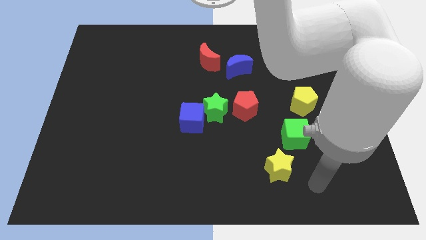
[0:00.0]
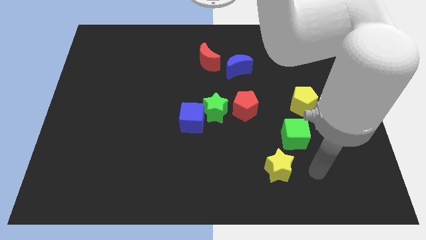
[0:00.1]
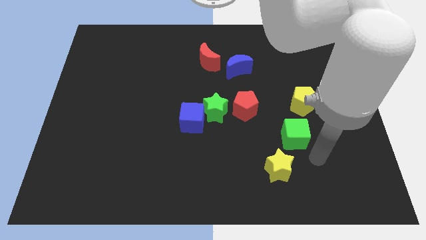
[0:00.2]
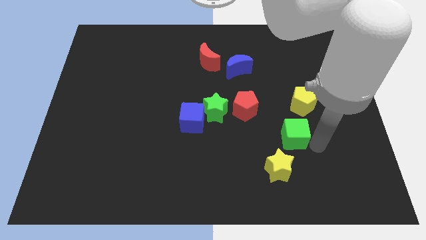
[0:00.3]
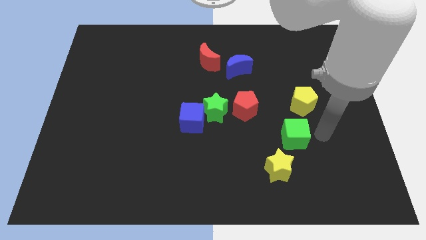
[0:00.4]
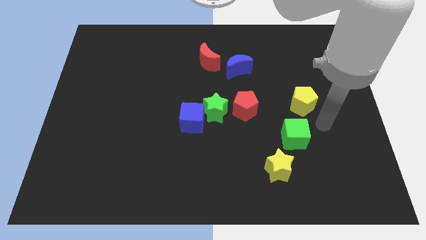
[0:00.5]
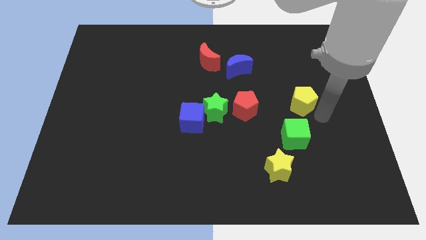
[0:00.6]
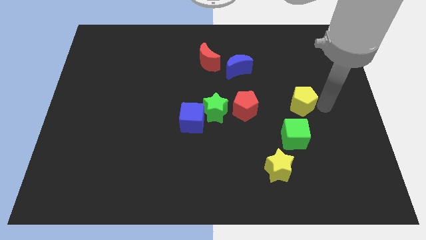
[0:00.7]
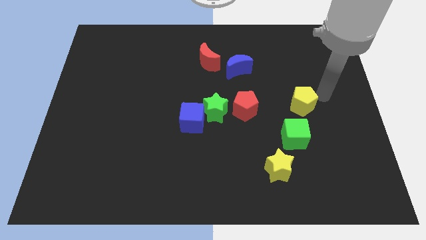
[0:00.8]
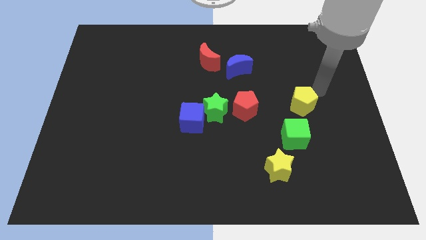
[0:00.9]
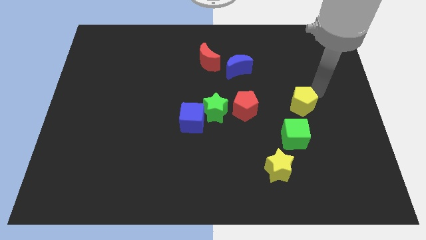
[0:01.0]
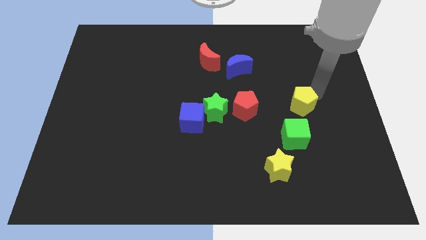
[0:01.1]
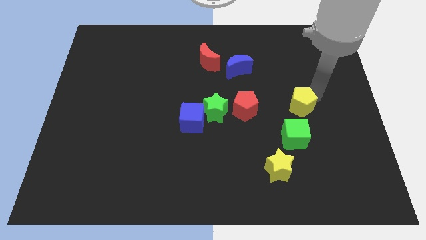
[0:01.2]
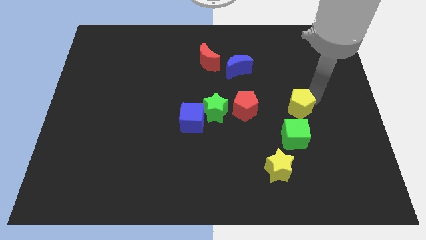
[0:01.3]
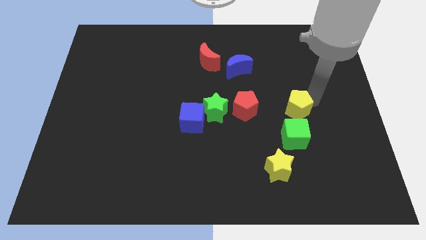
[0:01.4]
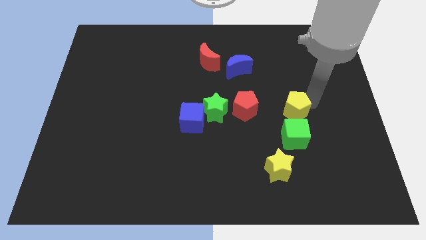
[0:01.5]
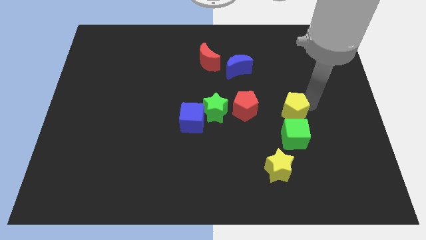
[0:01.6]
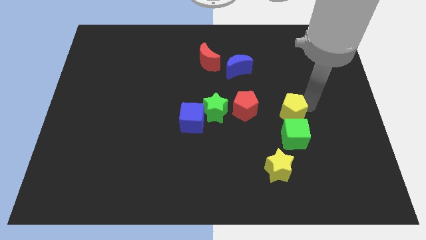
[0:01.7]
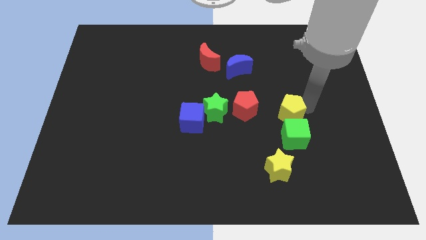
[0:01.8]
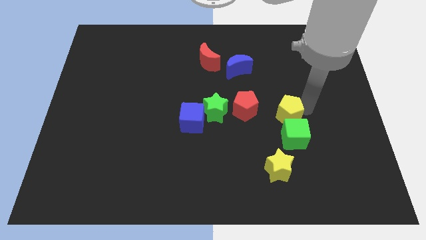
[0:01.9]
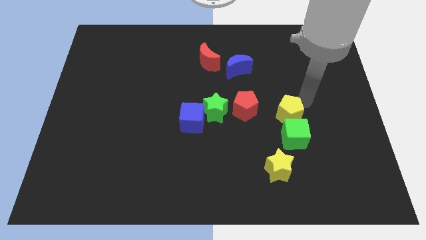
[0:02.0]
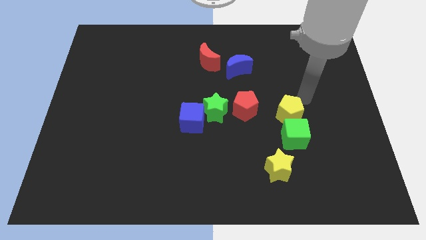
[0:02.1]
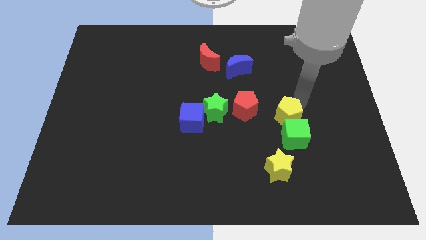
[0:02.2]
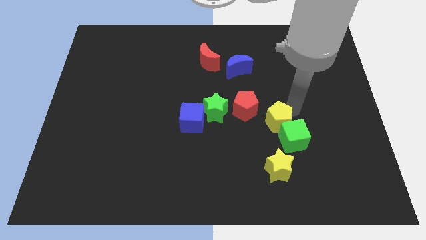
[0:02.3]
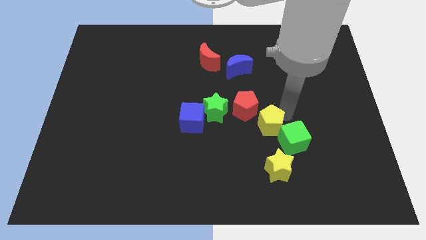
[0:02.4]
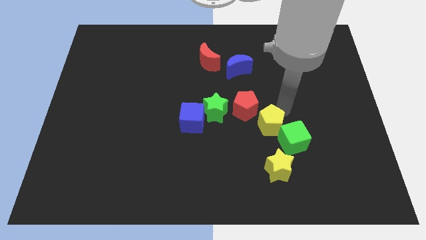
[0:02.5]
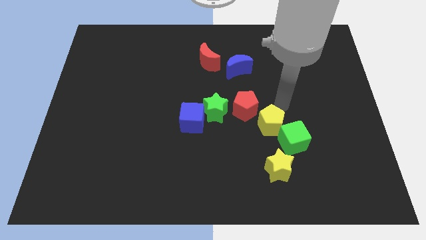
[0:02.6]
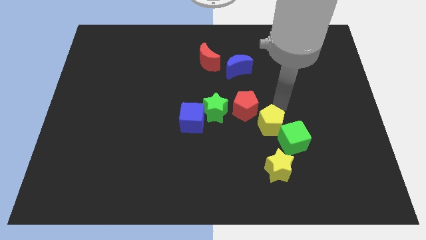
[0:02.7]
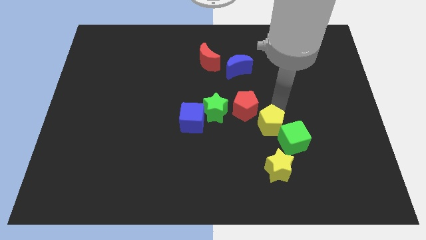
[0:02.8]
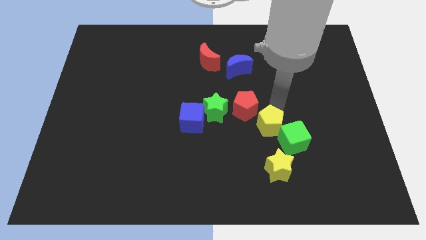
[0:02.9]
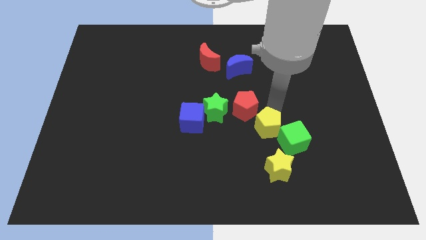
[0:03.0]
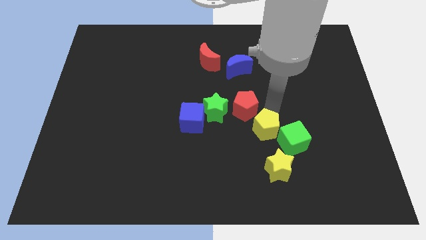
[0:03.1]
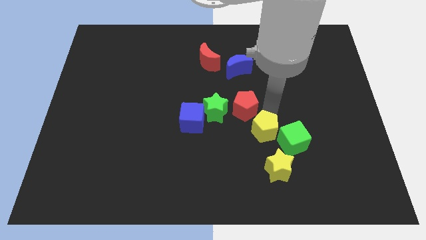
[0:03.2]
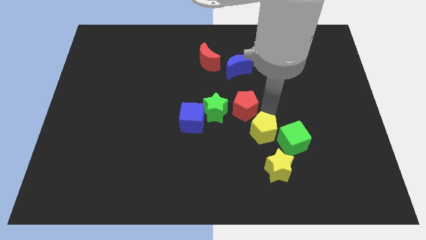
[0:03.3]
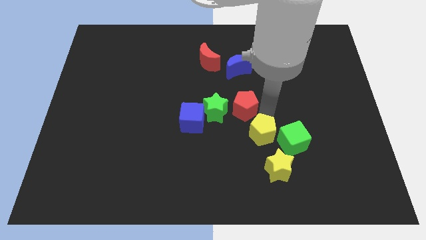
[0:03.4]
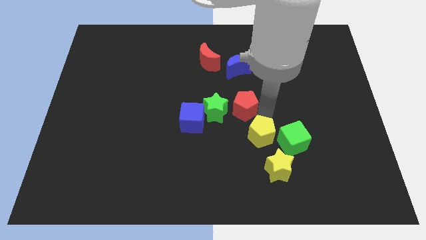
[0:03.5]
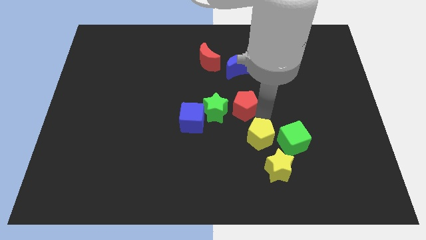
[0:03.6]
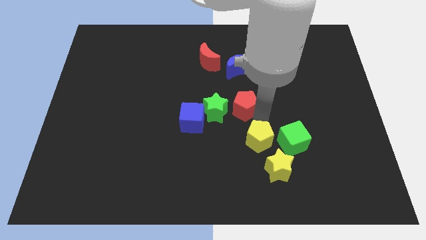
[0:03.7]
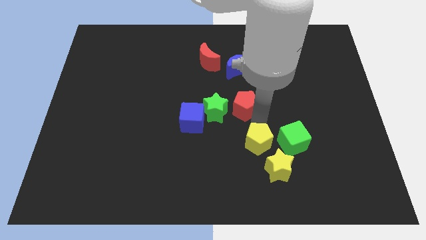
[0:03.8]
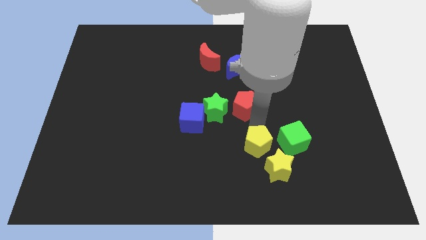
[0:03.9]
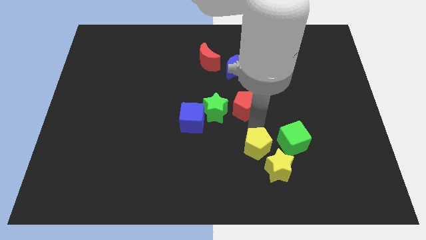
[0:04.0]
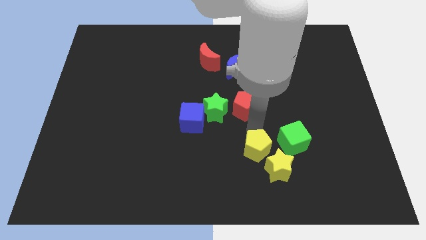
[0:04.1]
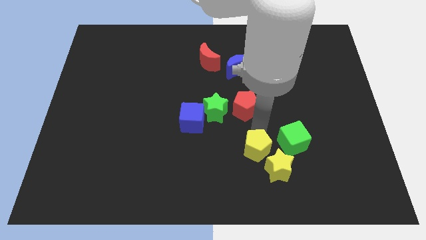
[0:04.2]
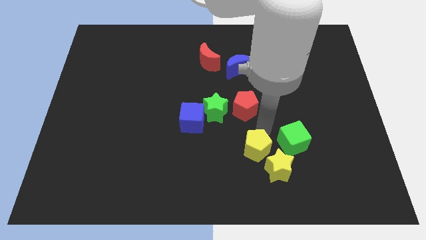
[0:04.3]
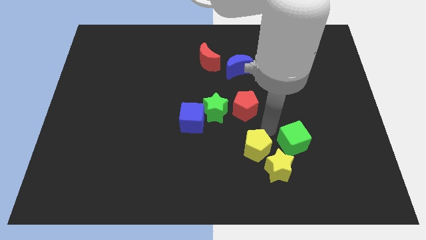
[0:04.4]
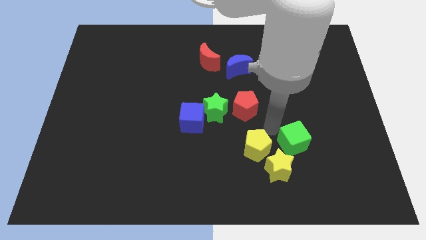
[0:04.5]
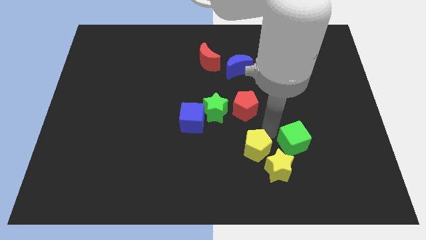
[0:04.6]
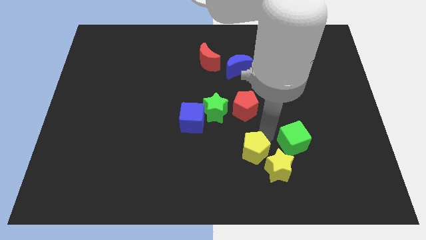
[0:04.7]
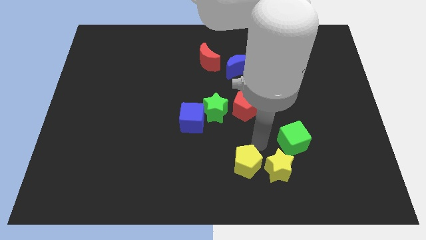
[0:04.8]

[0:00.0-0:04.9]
push the yellow pentagon to the bottom

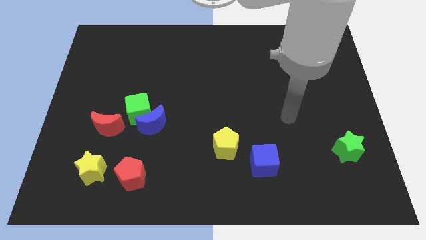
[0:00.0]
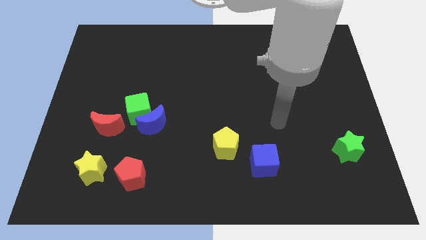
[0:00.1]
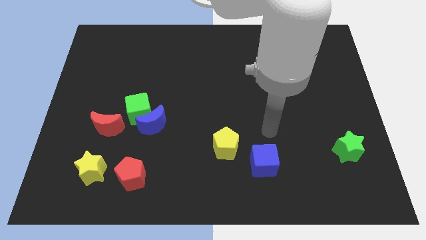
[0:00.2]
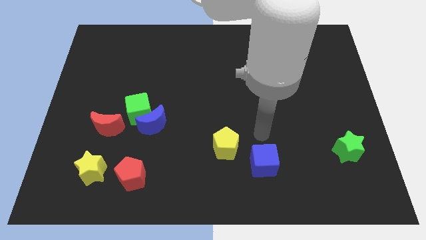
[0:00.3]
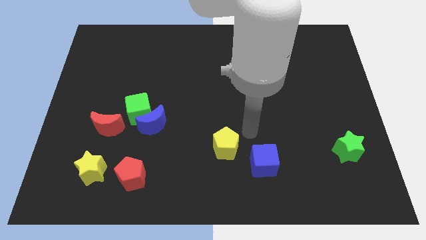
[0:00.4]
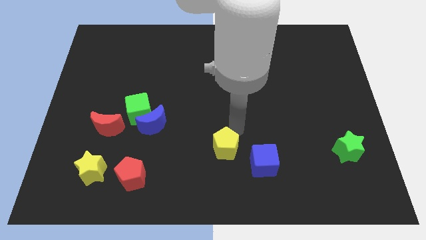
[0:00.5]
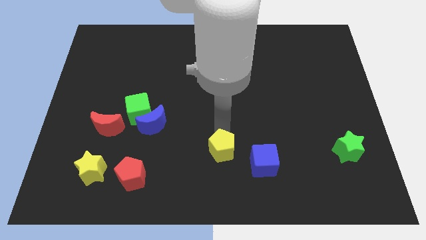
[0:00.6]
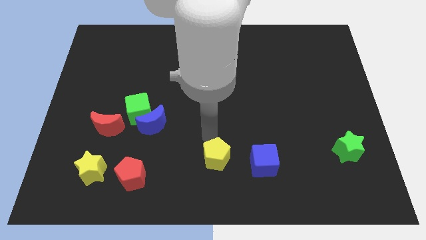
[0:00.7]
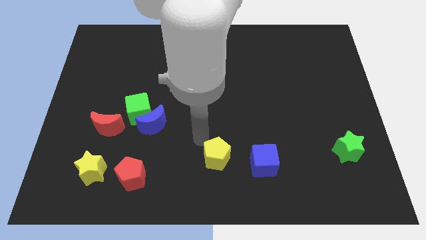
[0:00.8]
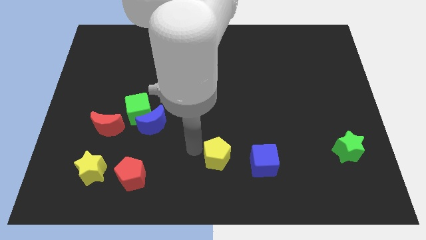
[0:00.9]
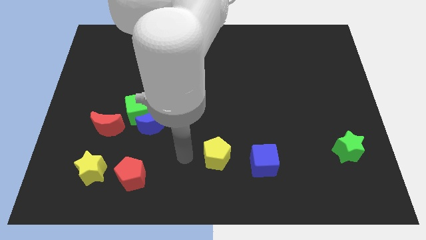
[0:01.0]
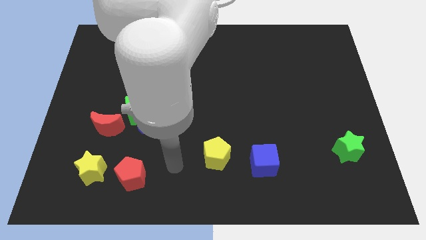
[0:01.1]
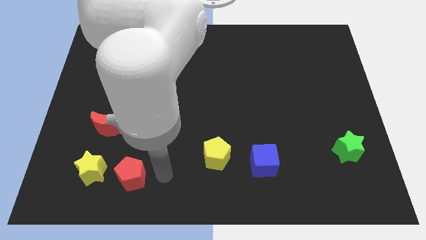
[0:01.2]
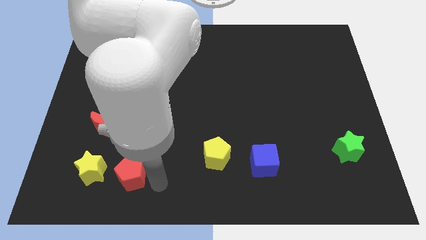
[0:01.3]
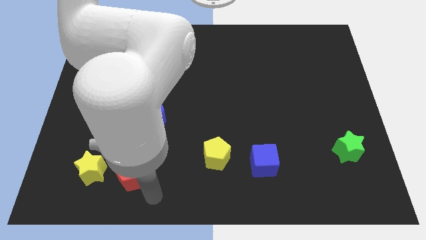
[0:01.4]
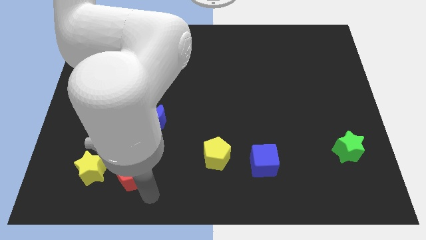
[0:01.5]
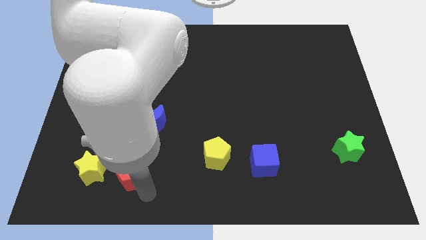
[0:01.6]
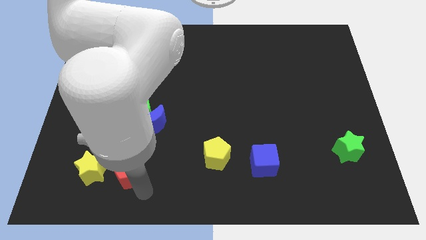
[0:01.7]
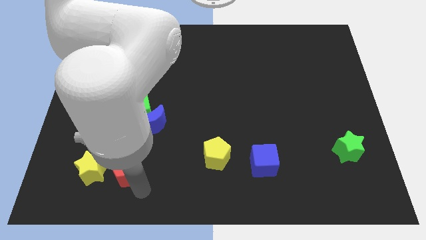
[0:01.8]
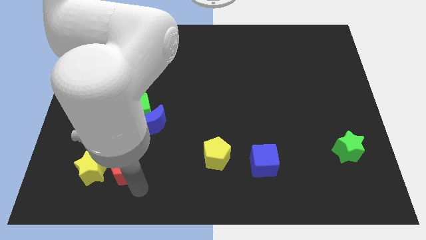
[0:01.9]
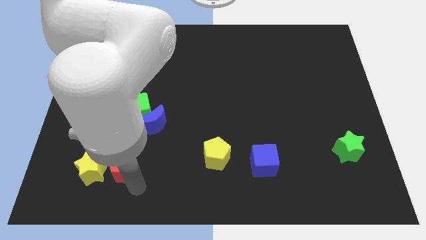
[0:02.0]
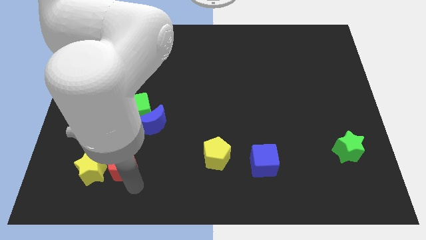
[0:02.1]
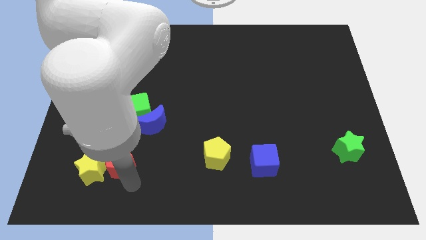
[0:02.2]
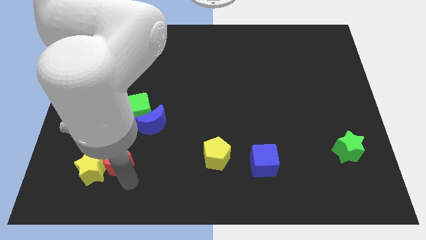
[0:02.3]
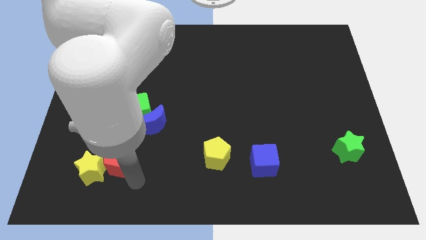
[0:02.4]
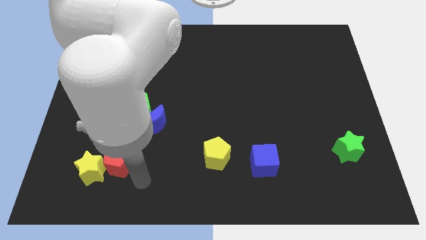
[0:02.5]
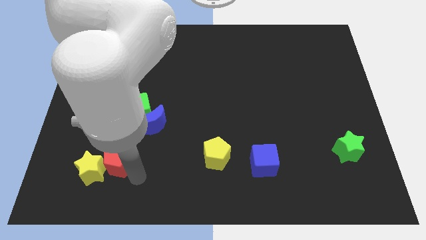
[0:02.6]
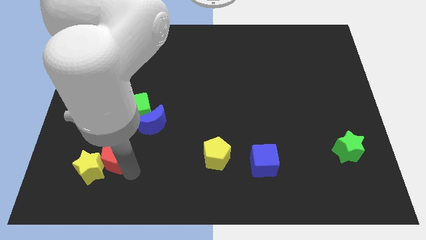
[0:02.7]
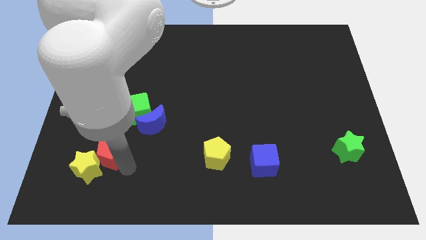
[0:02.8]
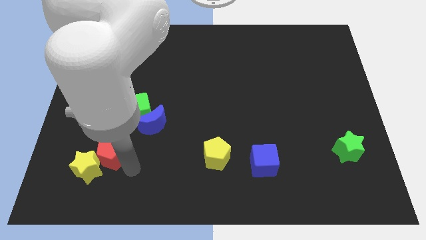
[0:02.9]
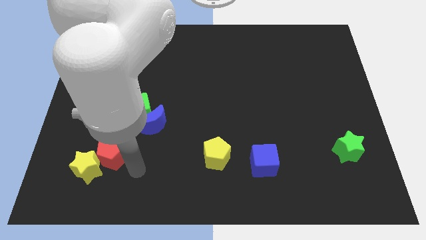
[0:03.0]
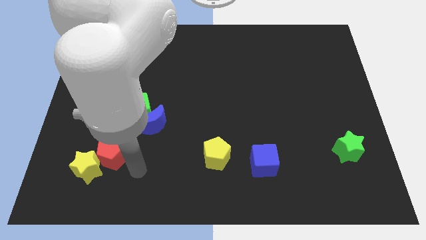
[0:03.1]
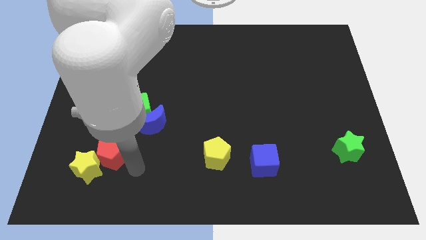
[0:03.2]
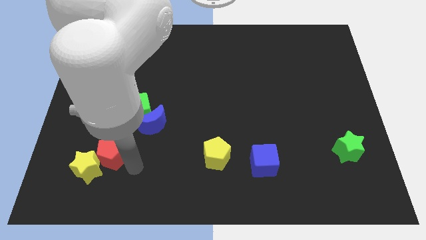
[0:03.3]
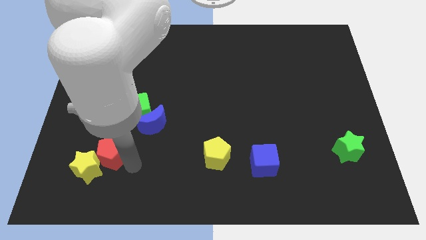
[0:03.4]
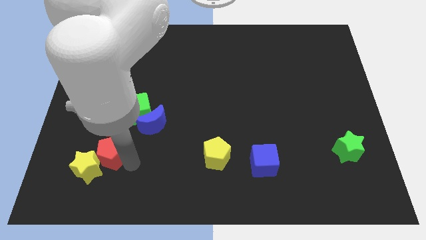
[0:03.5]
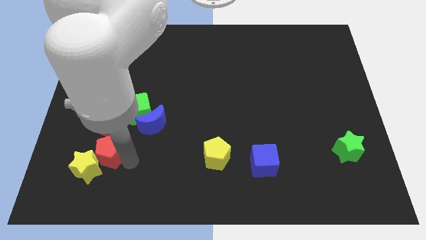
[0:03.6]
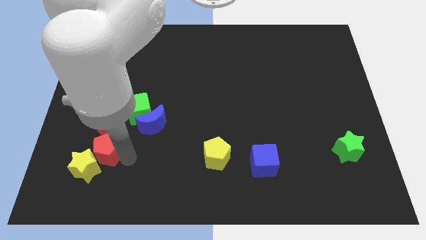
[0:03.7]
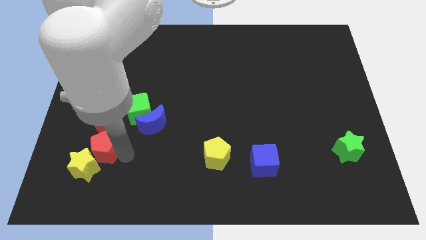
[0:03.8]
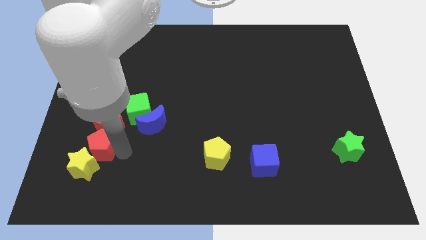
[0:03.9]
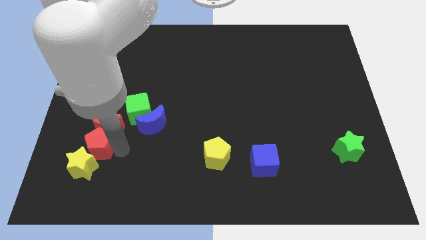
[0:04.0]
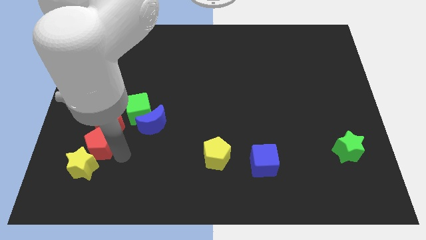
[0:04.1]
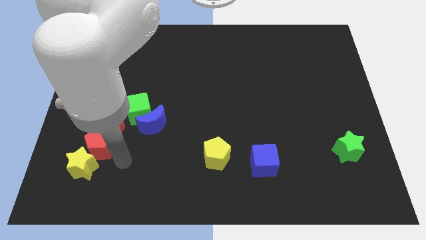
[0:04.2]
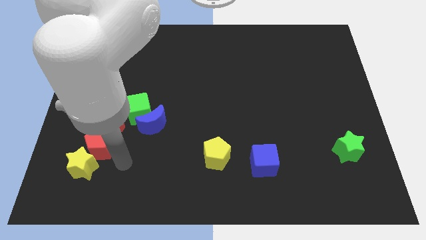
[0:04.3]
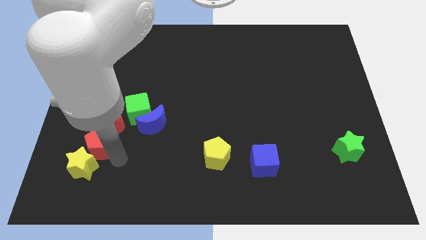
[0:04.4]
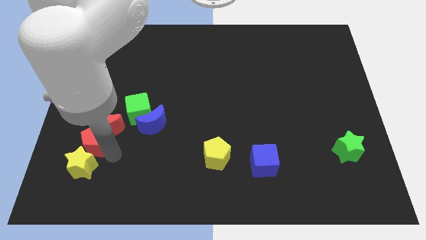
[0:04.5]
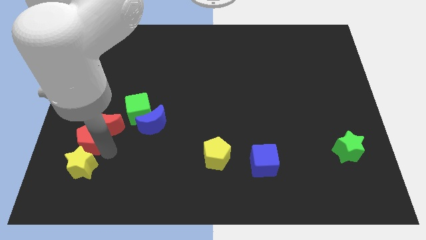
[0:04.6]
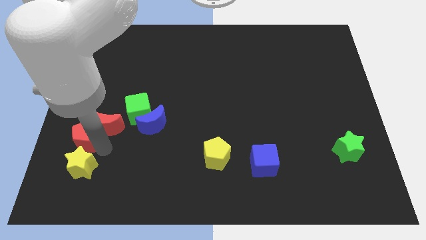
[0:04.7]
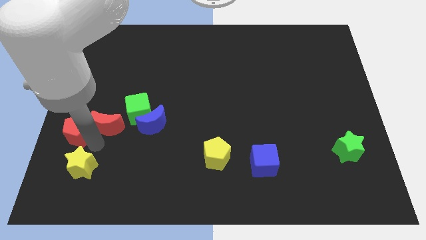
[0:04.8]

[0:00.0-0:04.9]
push the red pentagon to the left side
